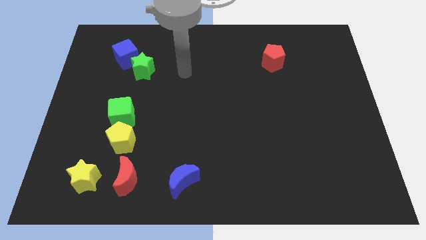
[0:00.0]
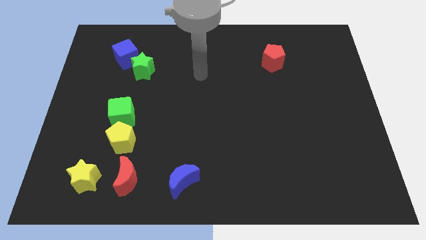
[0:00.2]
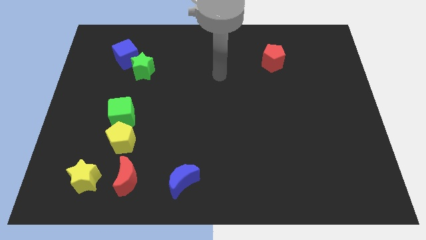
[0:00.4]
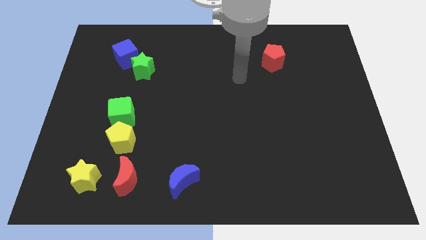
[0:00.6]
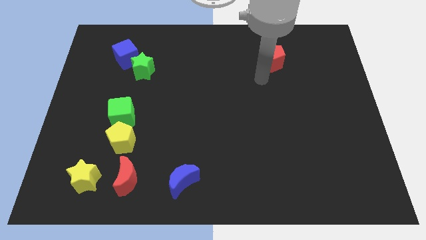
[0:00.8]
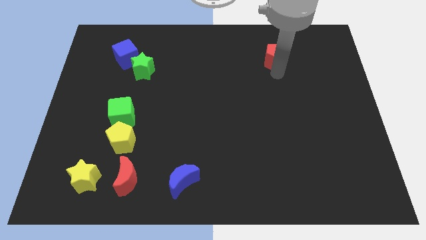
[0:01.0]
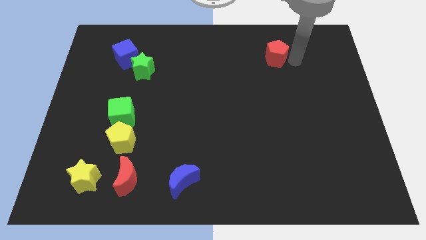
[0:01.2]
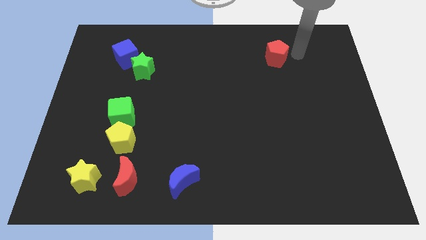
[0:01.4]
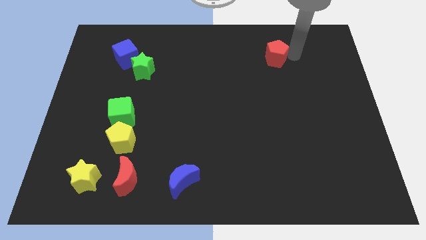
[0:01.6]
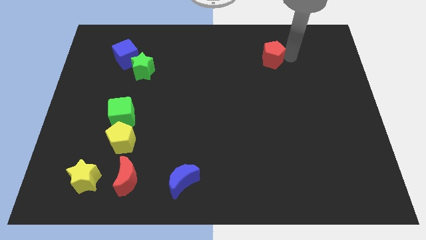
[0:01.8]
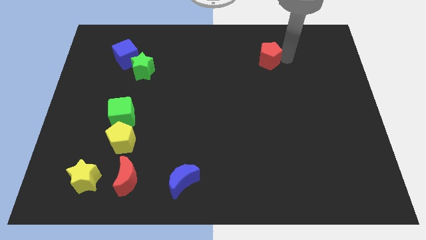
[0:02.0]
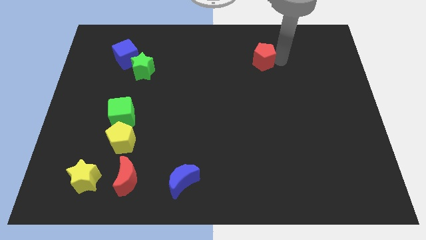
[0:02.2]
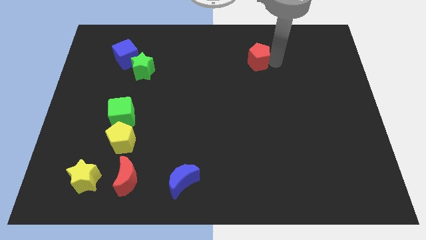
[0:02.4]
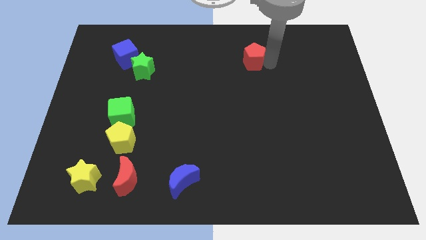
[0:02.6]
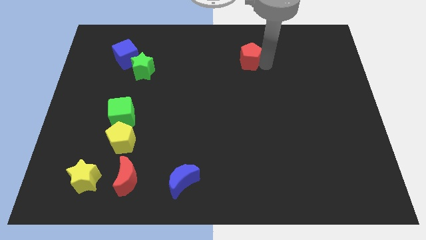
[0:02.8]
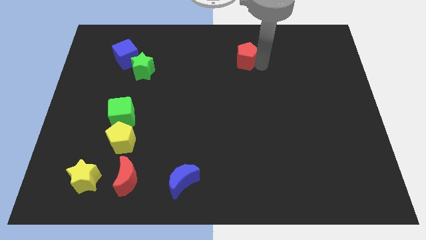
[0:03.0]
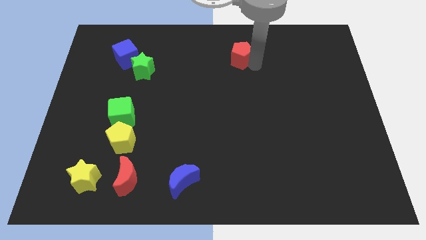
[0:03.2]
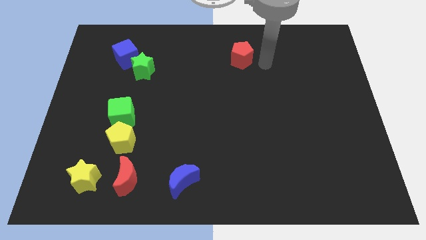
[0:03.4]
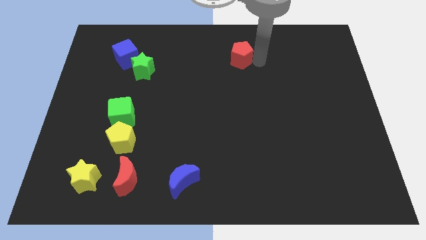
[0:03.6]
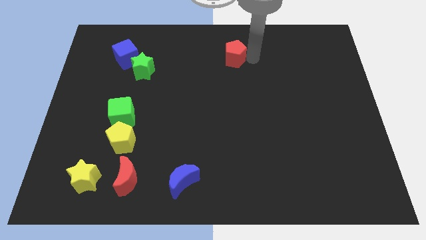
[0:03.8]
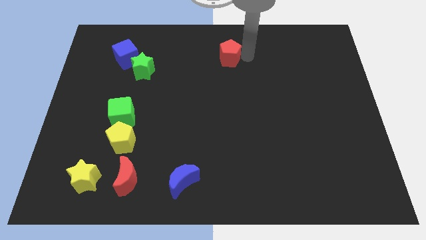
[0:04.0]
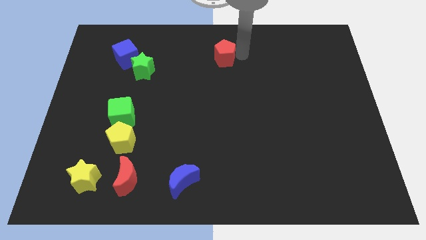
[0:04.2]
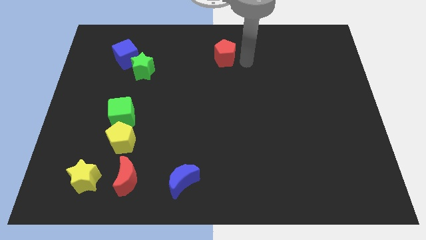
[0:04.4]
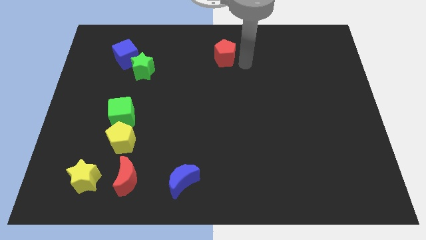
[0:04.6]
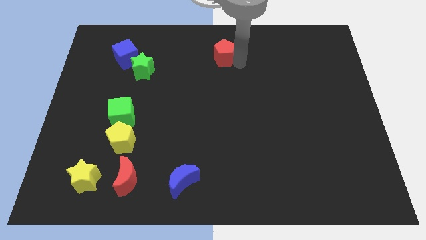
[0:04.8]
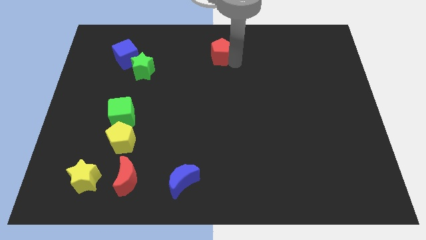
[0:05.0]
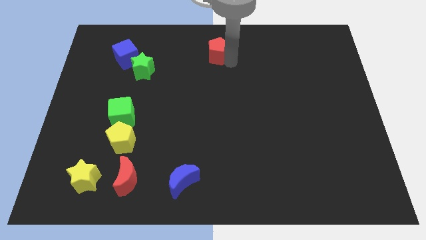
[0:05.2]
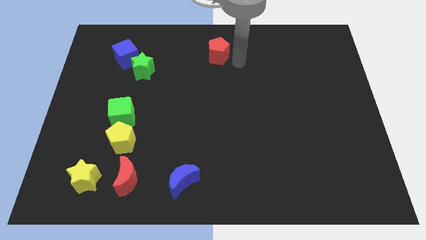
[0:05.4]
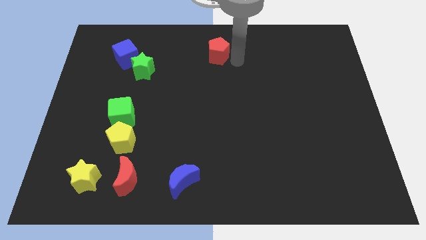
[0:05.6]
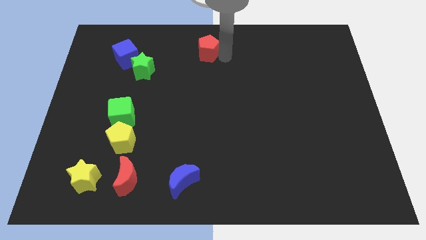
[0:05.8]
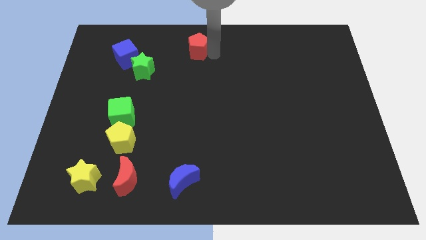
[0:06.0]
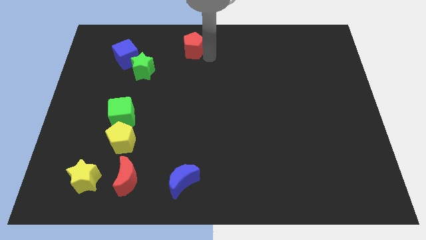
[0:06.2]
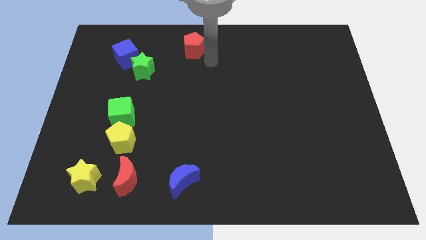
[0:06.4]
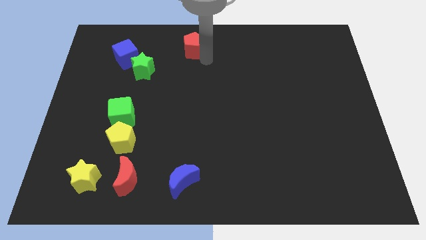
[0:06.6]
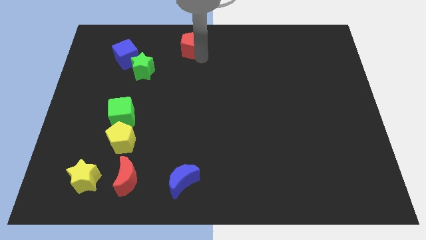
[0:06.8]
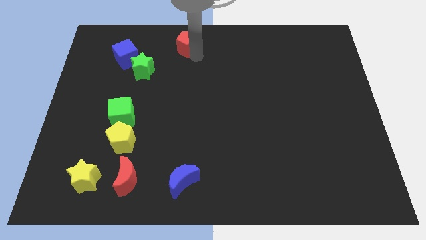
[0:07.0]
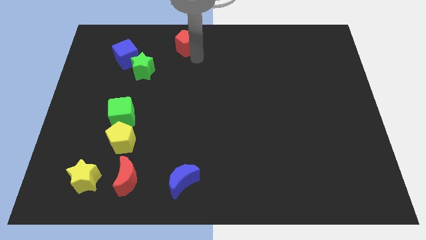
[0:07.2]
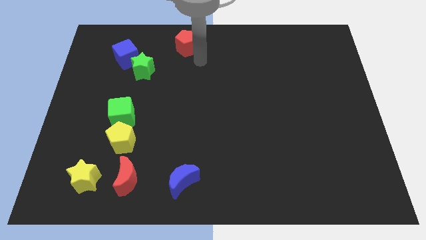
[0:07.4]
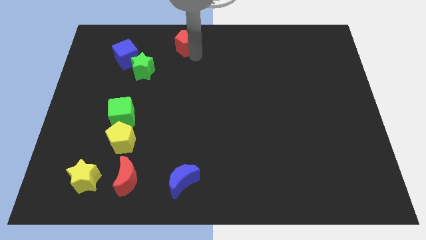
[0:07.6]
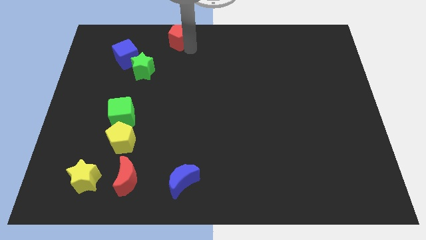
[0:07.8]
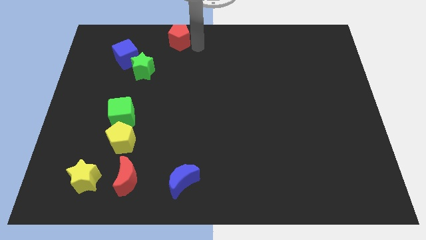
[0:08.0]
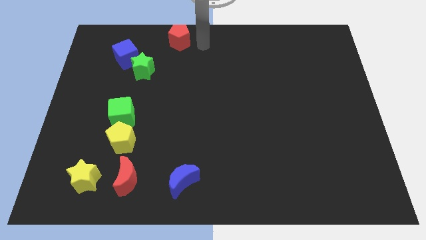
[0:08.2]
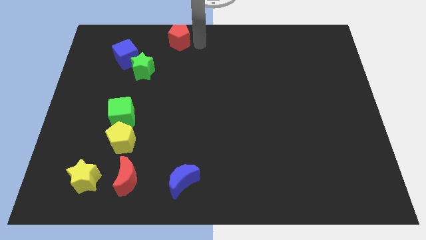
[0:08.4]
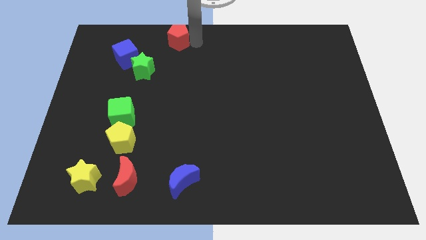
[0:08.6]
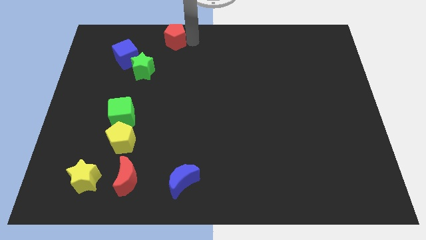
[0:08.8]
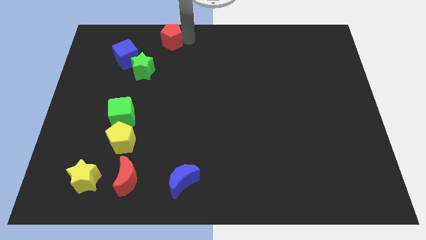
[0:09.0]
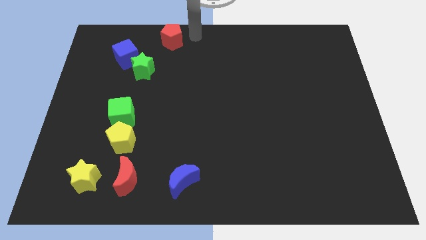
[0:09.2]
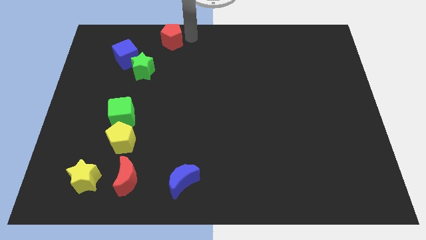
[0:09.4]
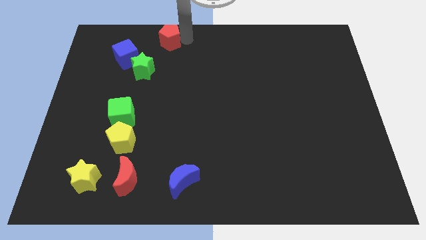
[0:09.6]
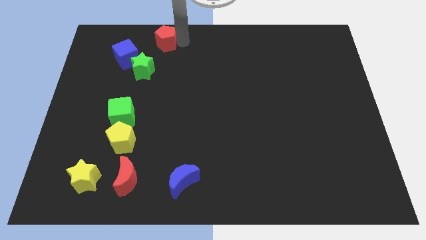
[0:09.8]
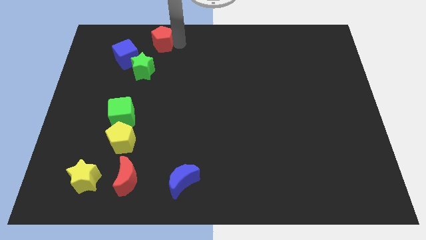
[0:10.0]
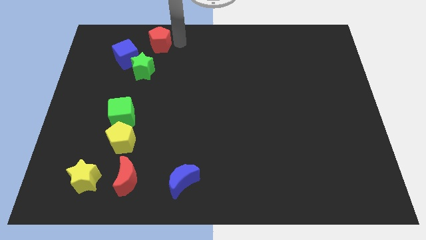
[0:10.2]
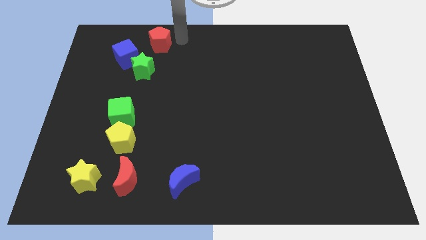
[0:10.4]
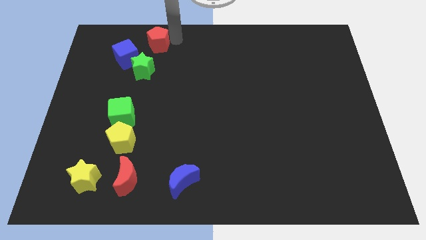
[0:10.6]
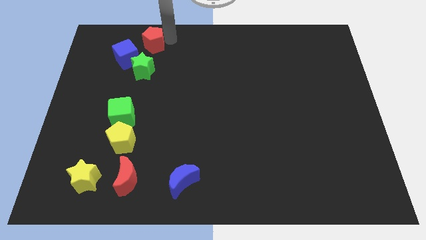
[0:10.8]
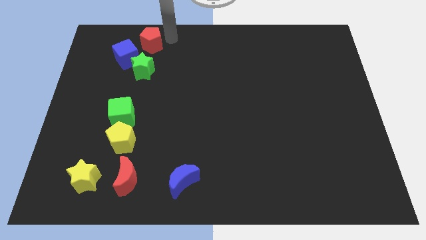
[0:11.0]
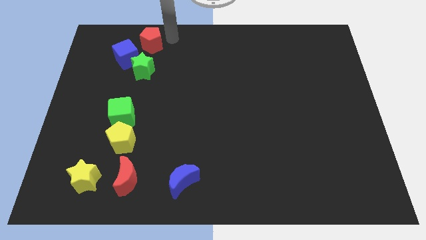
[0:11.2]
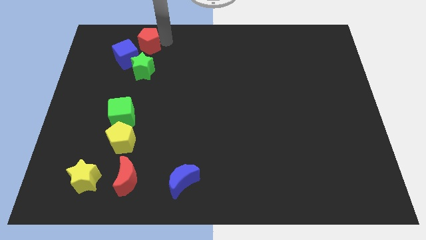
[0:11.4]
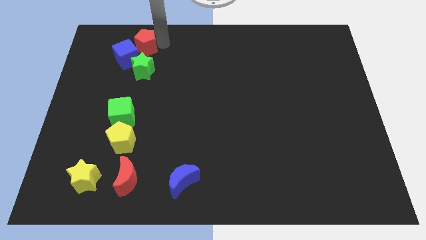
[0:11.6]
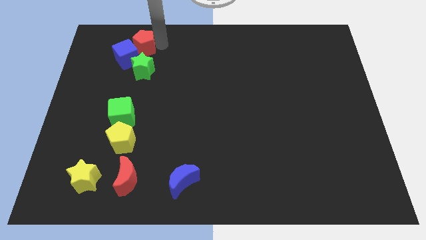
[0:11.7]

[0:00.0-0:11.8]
put the red pentagon next to the blue cube

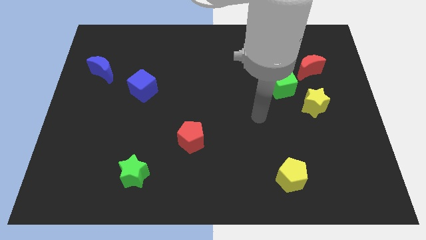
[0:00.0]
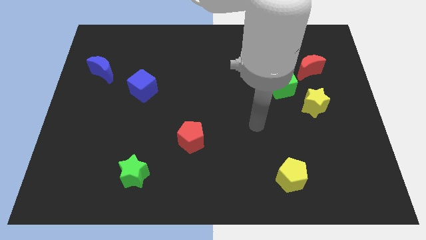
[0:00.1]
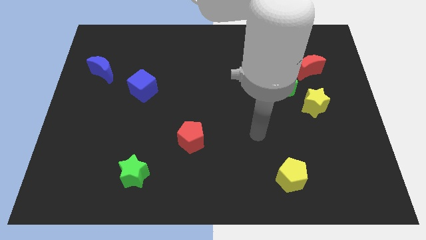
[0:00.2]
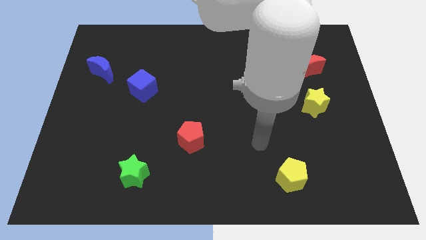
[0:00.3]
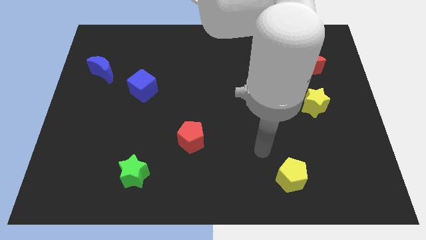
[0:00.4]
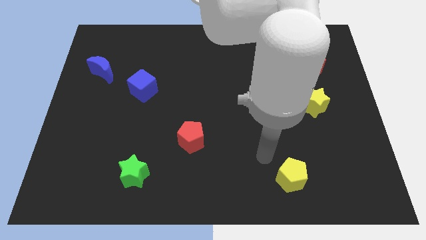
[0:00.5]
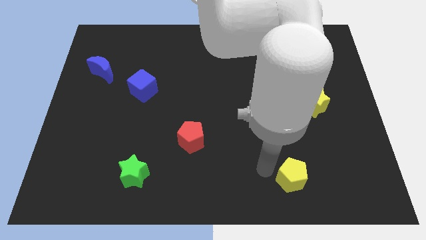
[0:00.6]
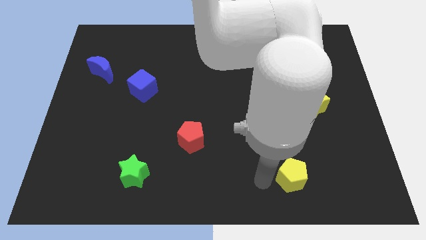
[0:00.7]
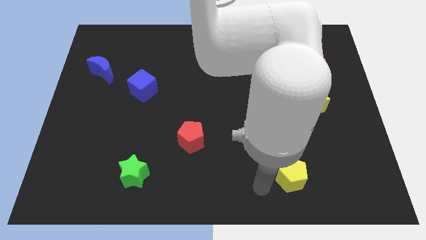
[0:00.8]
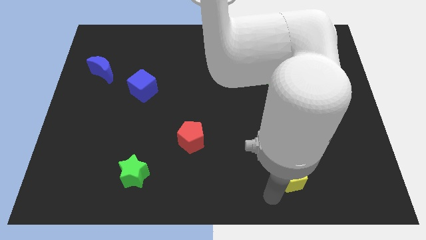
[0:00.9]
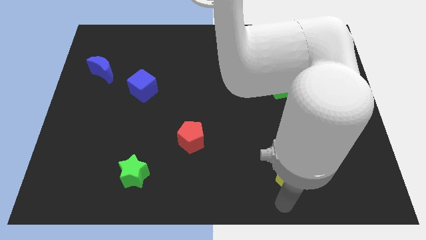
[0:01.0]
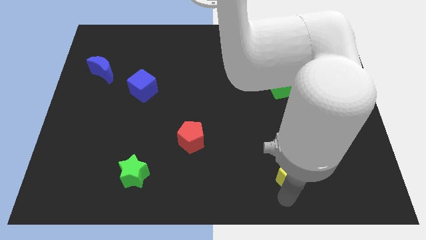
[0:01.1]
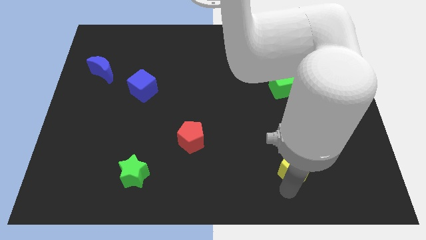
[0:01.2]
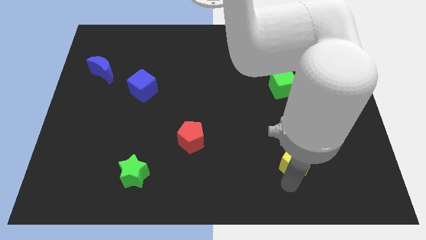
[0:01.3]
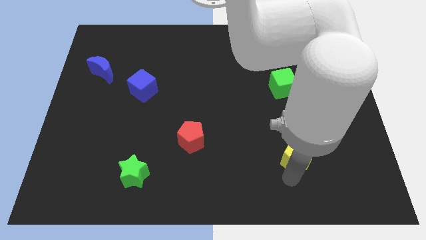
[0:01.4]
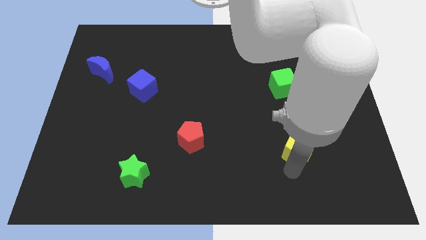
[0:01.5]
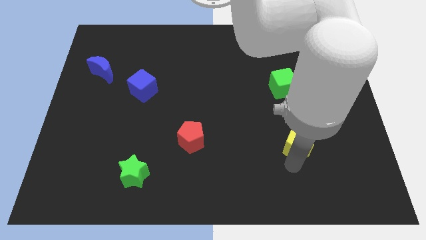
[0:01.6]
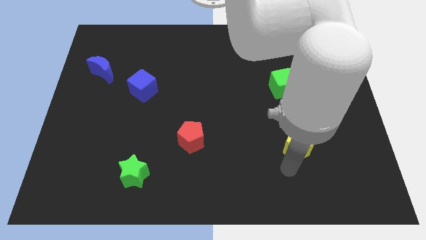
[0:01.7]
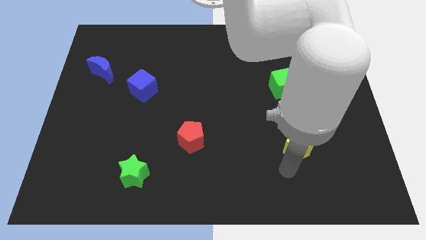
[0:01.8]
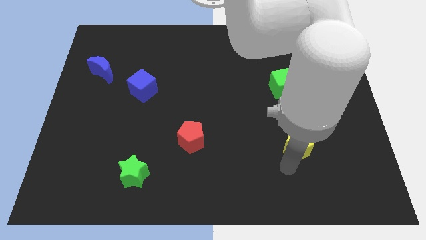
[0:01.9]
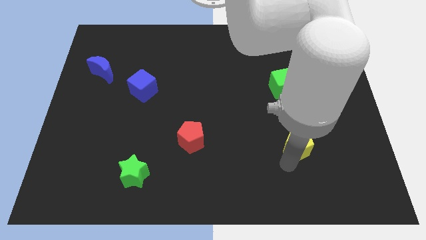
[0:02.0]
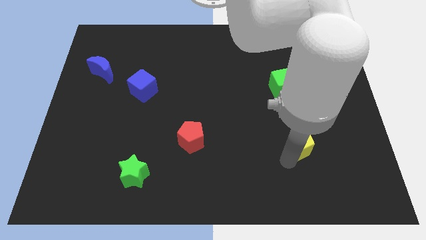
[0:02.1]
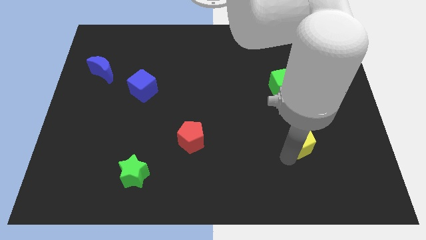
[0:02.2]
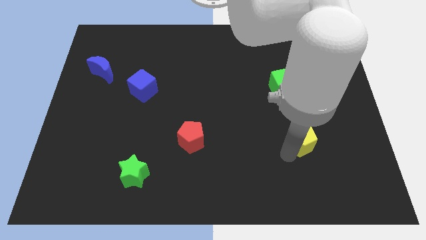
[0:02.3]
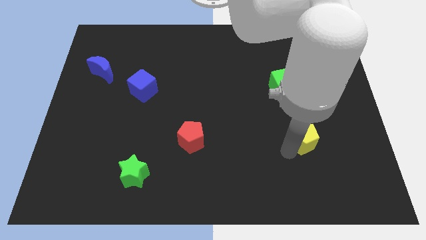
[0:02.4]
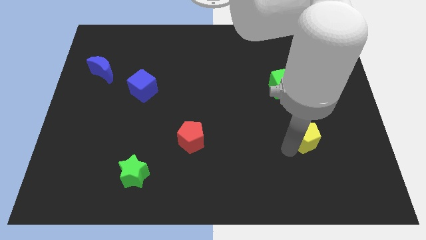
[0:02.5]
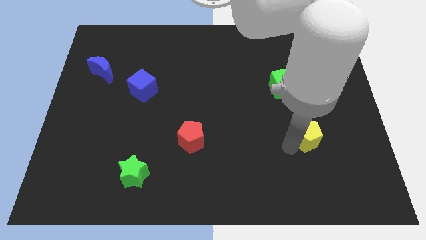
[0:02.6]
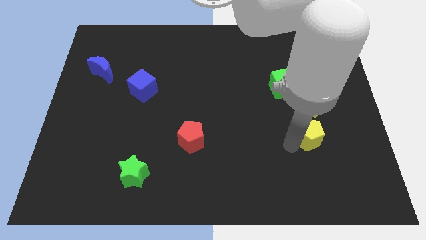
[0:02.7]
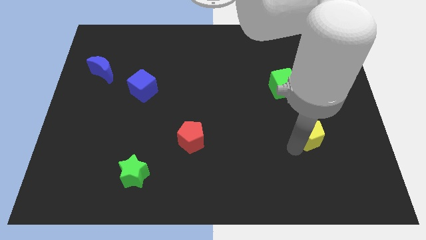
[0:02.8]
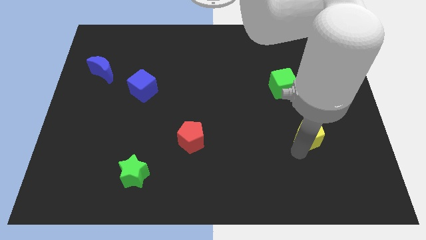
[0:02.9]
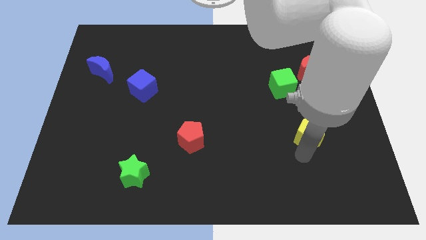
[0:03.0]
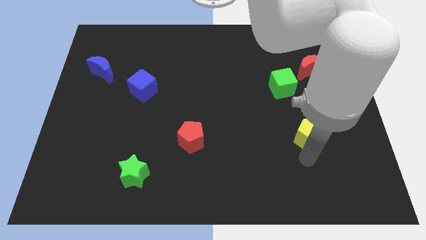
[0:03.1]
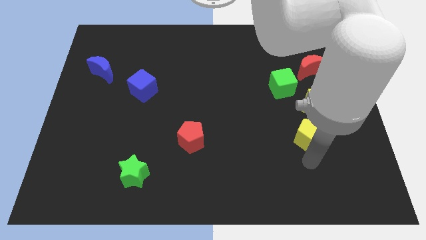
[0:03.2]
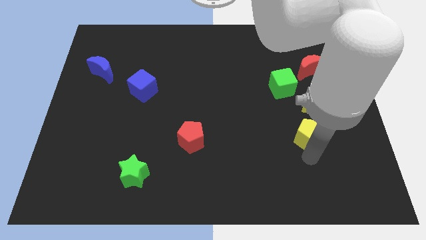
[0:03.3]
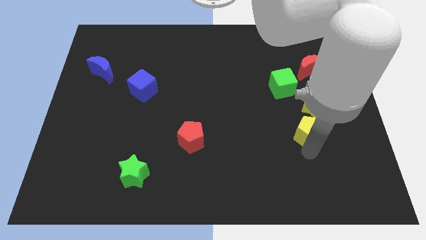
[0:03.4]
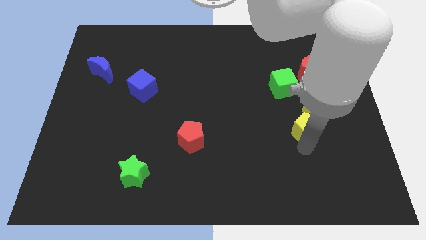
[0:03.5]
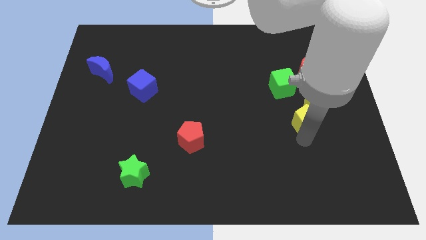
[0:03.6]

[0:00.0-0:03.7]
push the yellow pentagon towards the yellow star
